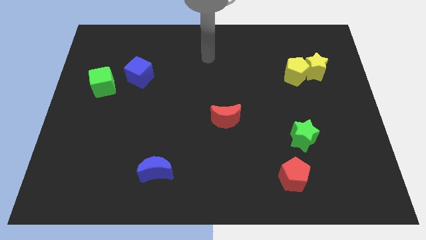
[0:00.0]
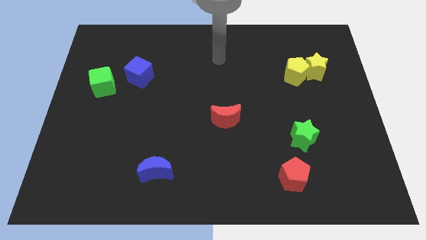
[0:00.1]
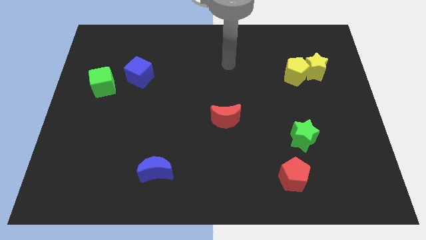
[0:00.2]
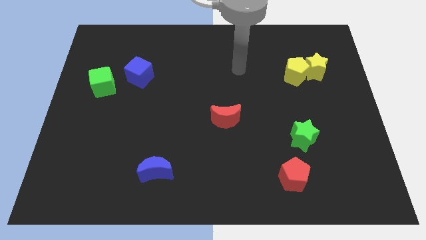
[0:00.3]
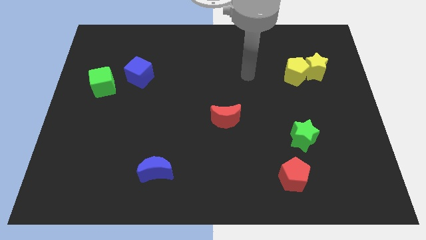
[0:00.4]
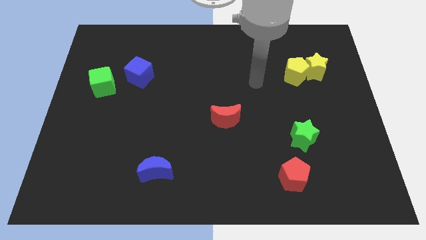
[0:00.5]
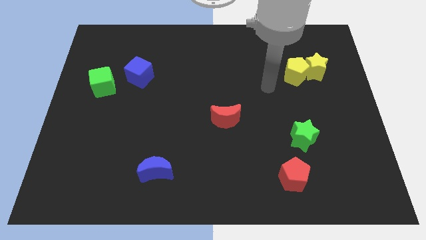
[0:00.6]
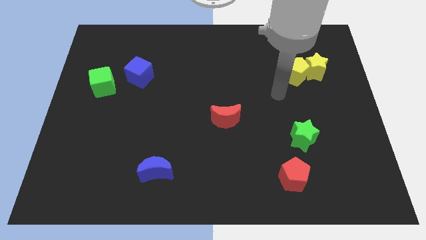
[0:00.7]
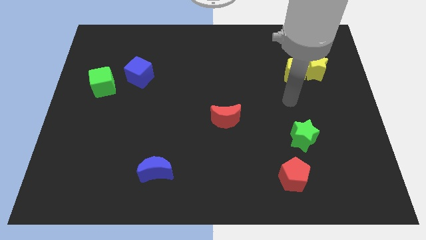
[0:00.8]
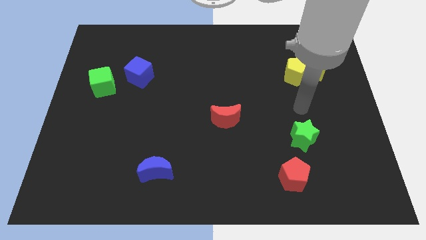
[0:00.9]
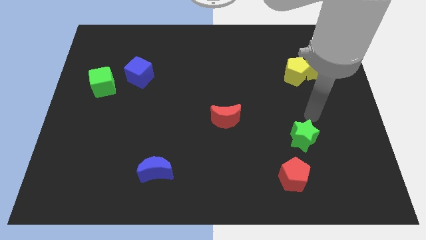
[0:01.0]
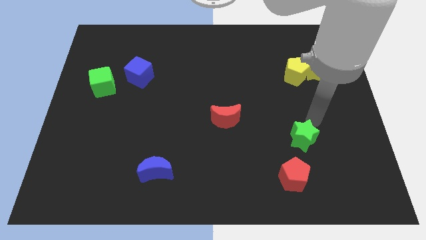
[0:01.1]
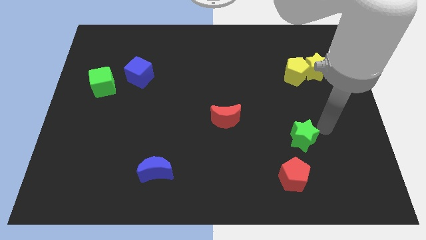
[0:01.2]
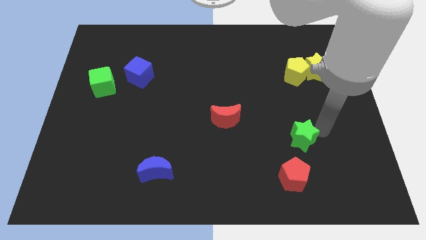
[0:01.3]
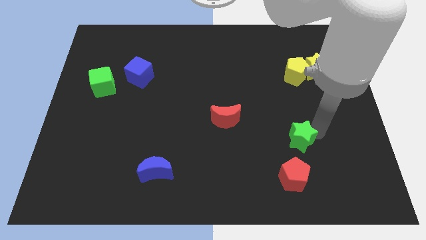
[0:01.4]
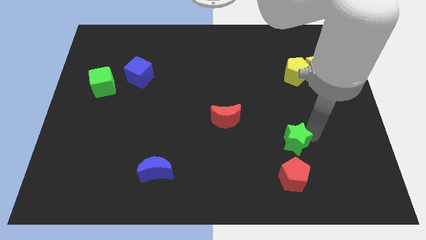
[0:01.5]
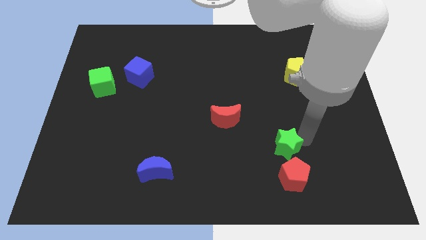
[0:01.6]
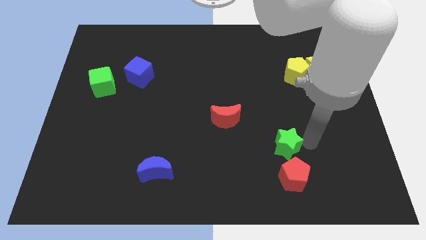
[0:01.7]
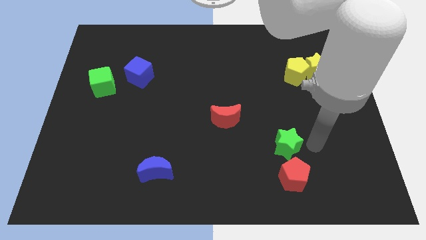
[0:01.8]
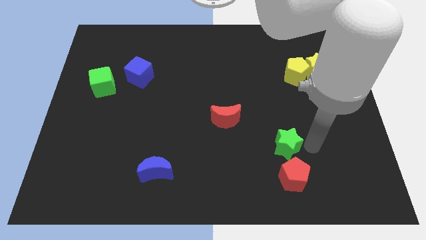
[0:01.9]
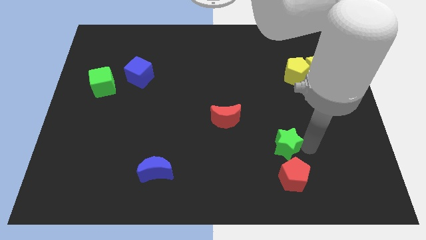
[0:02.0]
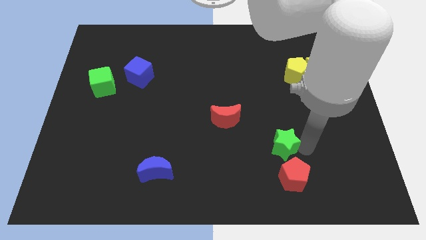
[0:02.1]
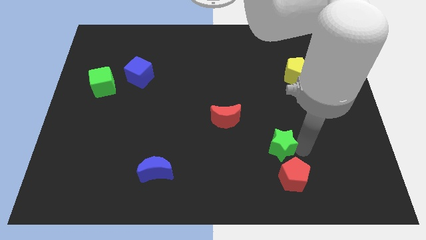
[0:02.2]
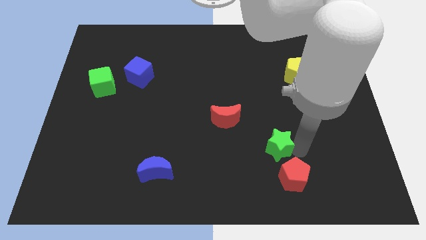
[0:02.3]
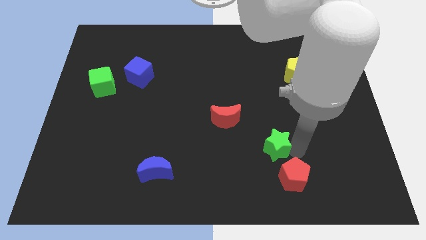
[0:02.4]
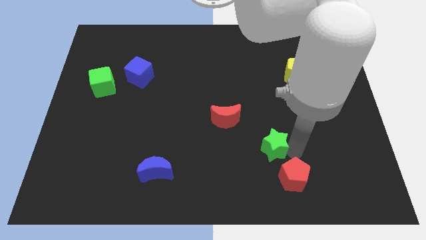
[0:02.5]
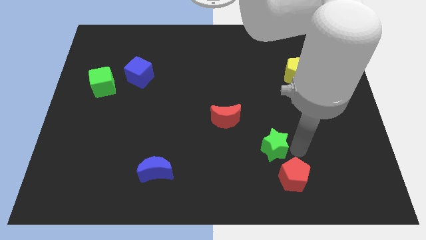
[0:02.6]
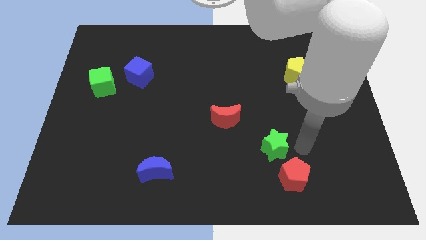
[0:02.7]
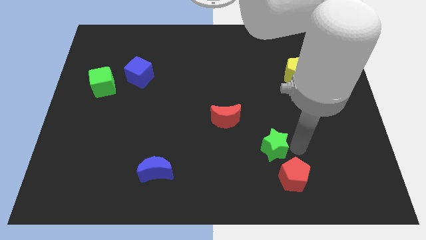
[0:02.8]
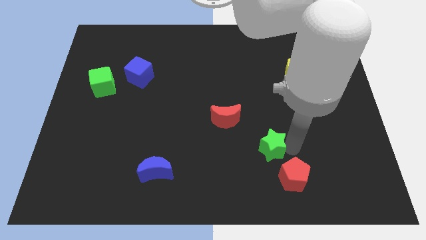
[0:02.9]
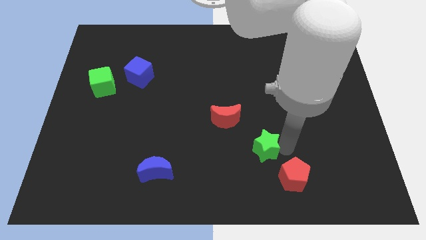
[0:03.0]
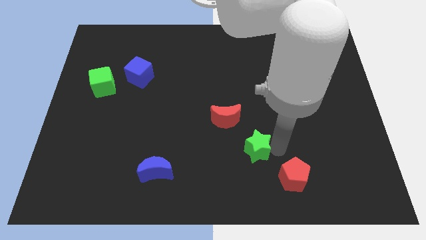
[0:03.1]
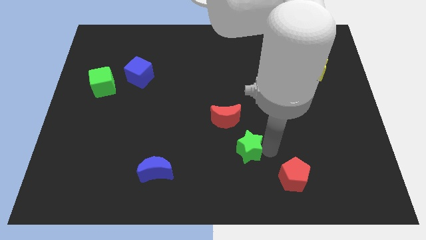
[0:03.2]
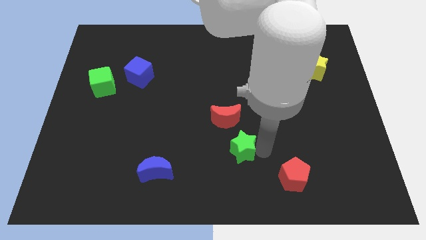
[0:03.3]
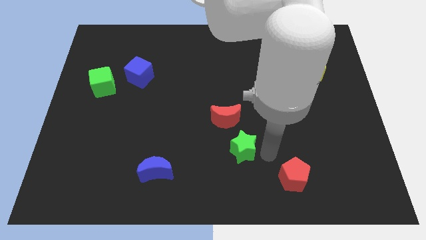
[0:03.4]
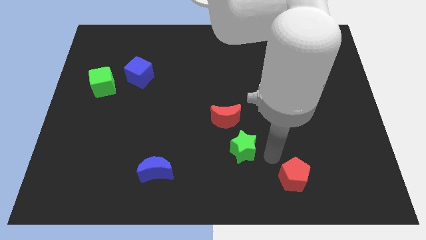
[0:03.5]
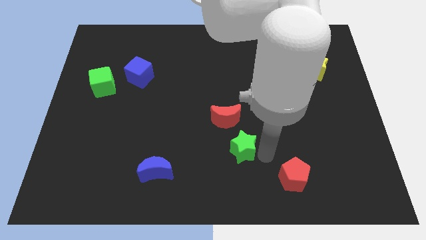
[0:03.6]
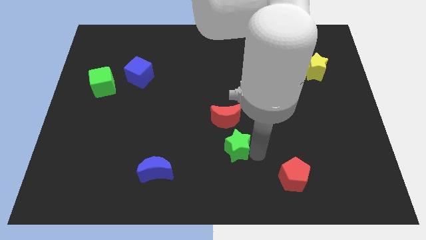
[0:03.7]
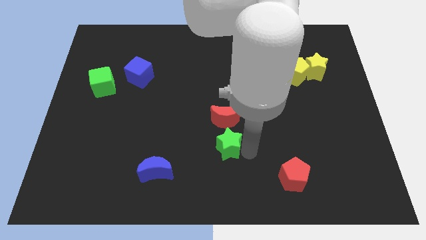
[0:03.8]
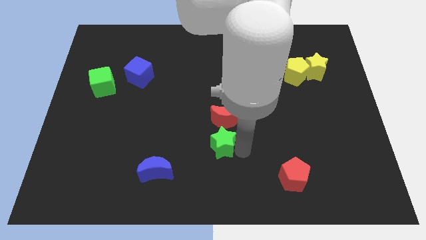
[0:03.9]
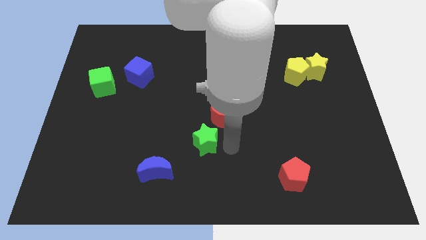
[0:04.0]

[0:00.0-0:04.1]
move the green star to the left

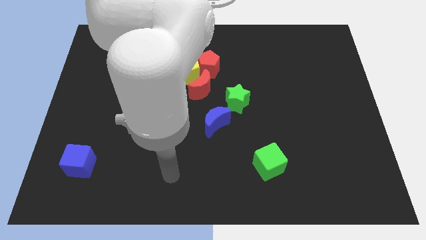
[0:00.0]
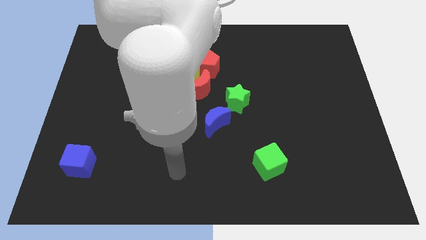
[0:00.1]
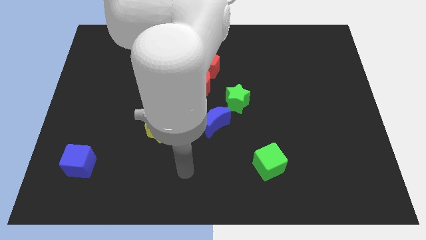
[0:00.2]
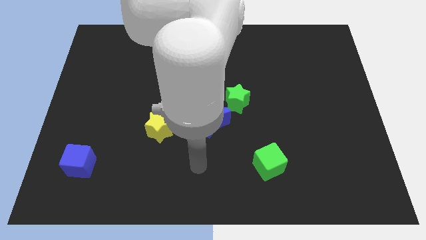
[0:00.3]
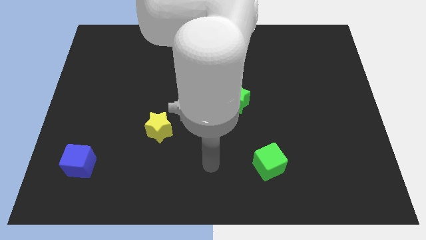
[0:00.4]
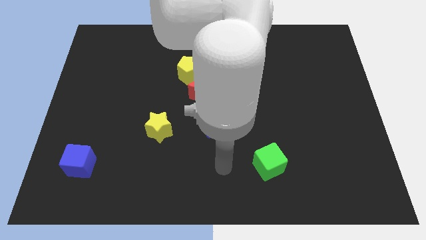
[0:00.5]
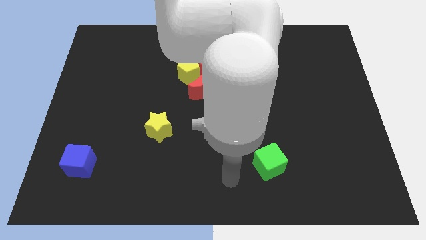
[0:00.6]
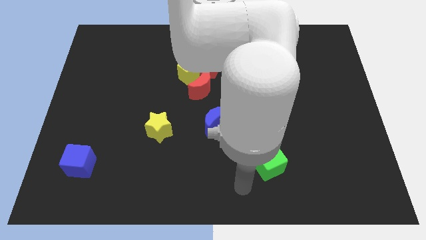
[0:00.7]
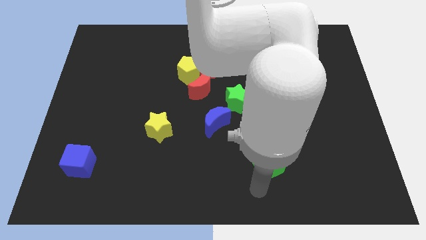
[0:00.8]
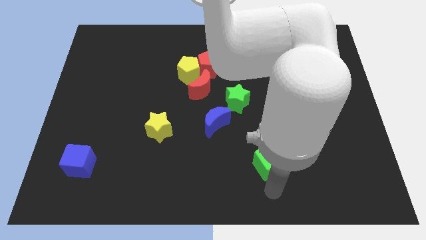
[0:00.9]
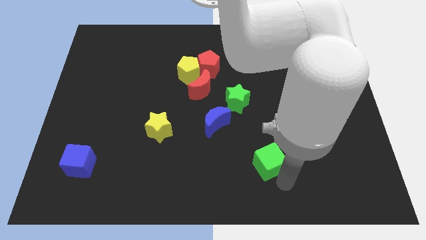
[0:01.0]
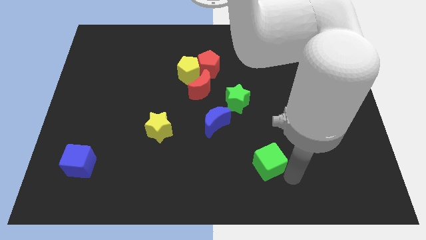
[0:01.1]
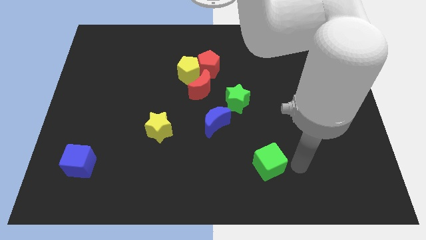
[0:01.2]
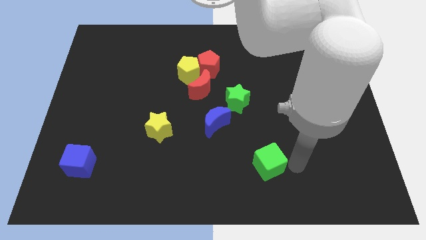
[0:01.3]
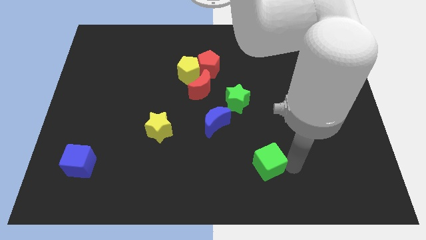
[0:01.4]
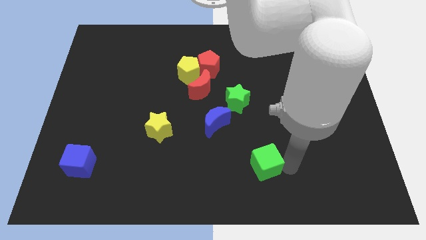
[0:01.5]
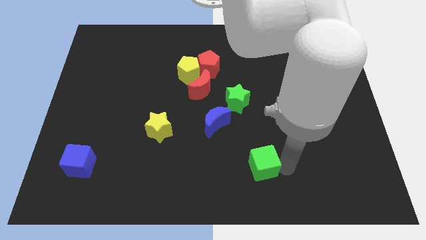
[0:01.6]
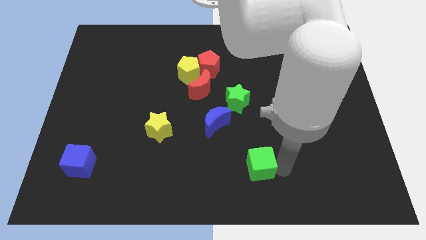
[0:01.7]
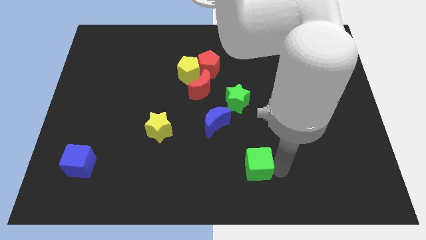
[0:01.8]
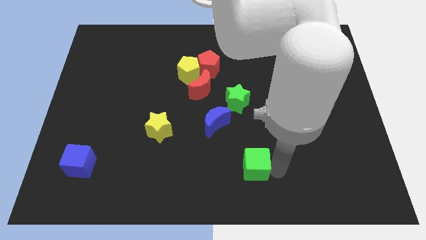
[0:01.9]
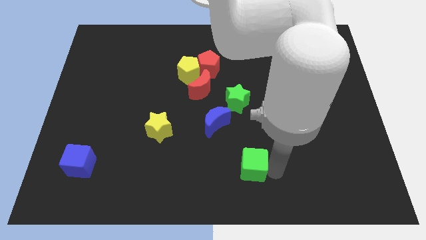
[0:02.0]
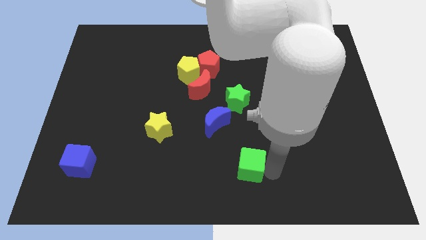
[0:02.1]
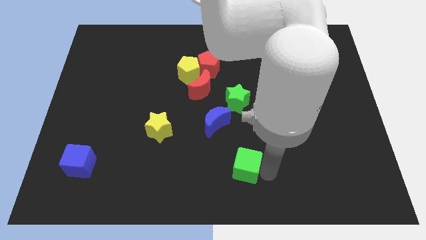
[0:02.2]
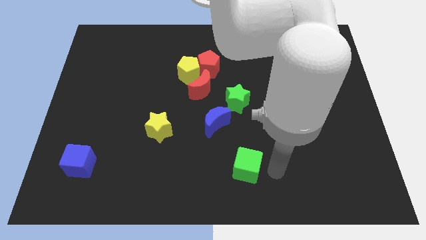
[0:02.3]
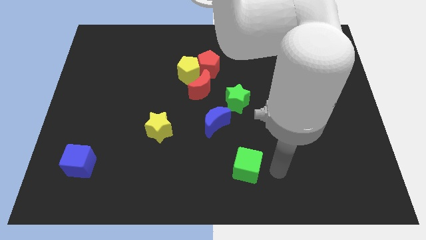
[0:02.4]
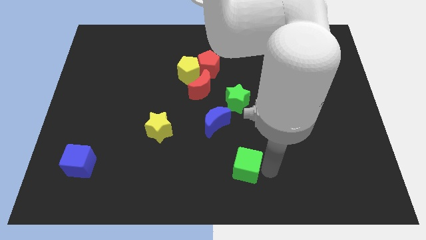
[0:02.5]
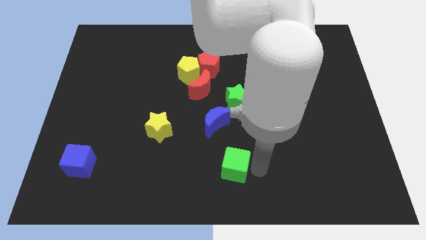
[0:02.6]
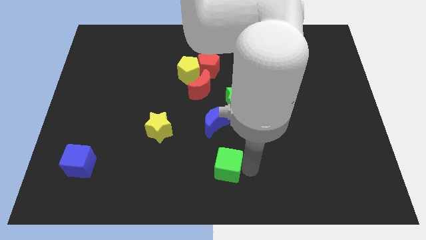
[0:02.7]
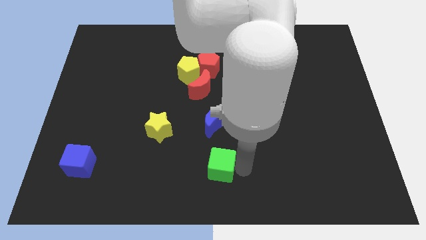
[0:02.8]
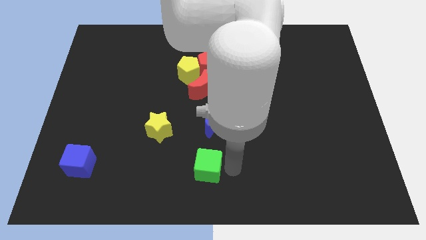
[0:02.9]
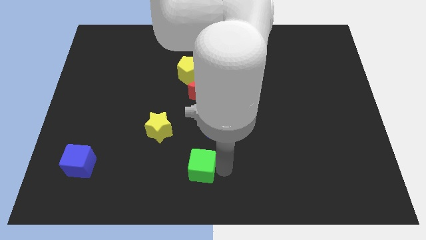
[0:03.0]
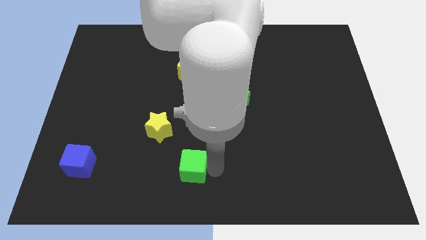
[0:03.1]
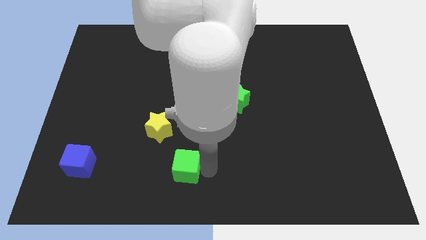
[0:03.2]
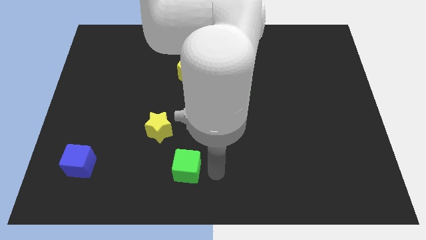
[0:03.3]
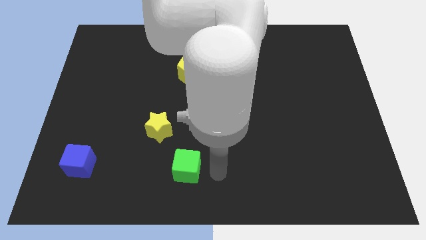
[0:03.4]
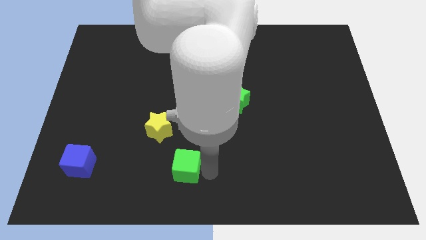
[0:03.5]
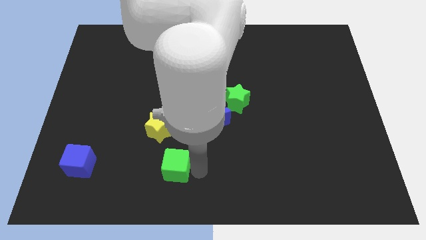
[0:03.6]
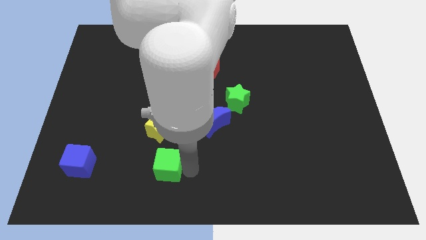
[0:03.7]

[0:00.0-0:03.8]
slide the green cube left
